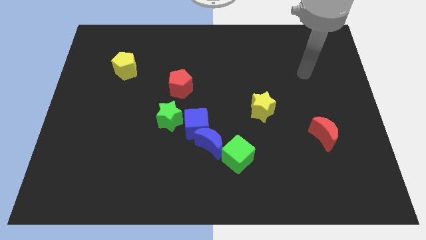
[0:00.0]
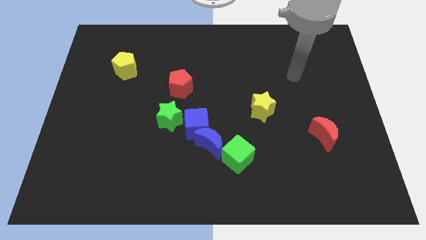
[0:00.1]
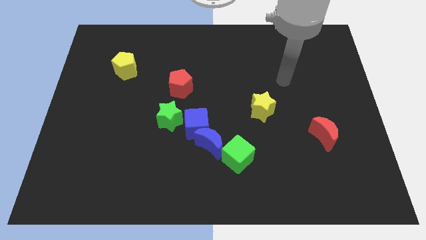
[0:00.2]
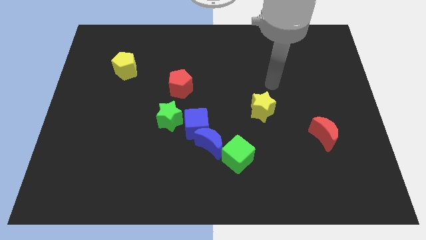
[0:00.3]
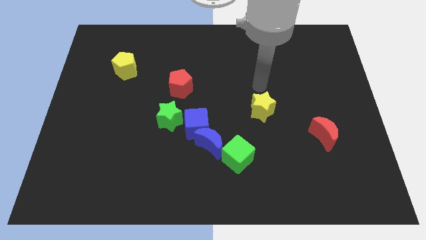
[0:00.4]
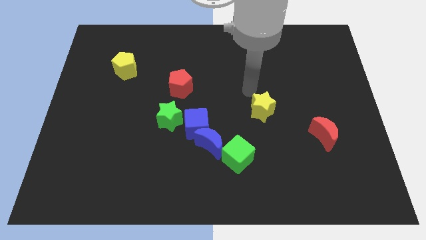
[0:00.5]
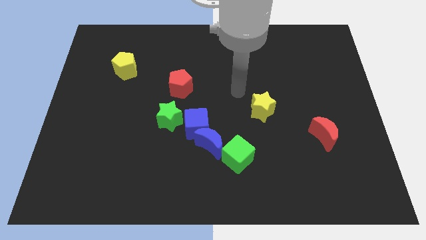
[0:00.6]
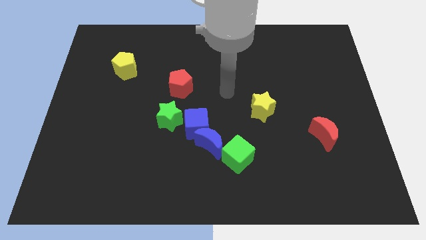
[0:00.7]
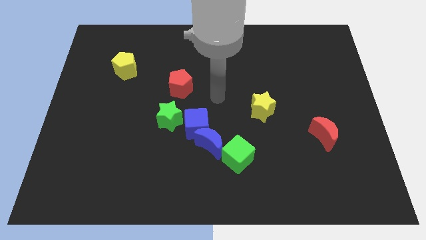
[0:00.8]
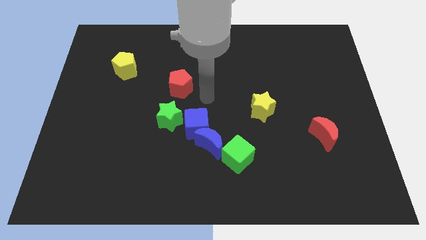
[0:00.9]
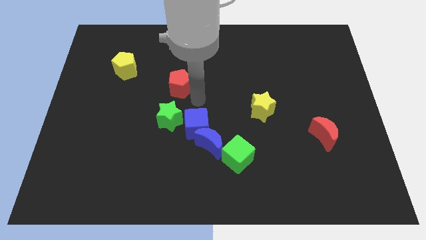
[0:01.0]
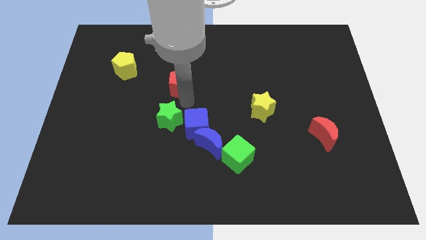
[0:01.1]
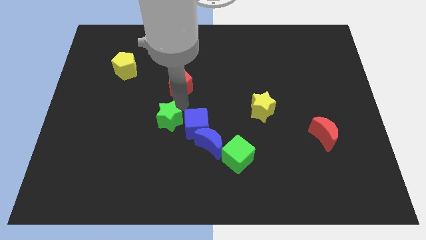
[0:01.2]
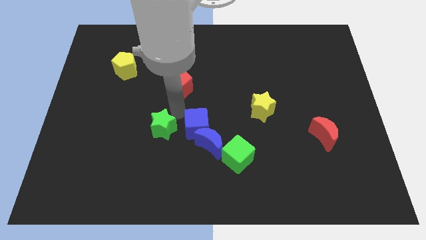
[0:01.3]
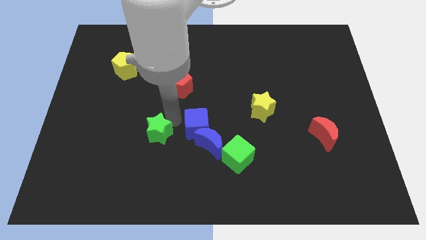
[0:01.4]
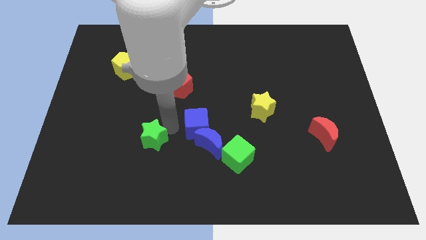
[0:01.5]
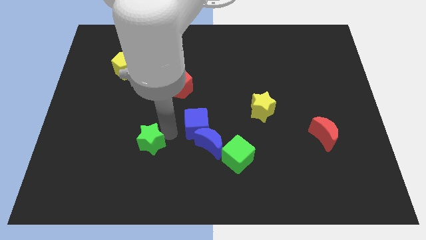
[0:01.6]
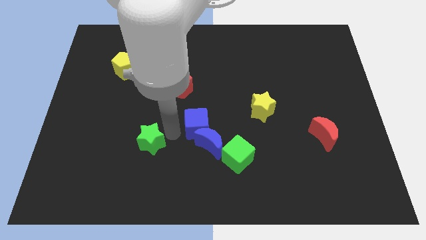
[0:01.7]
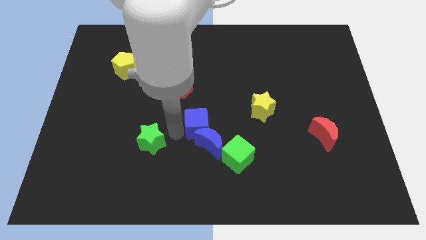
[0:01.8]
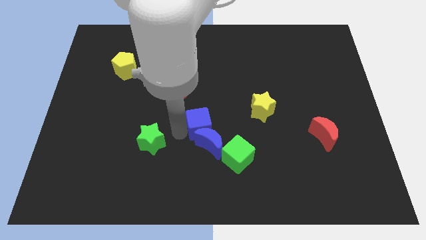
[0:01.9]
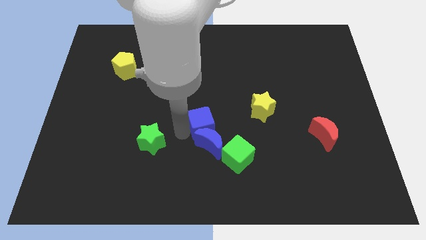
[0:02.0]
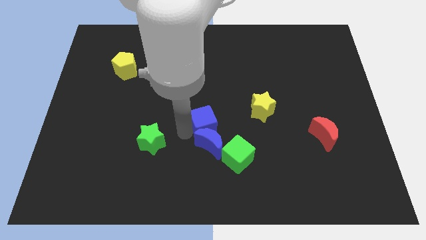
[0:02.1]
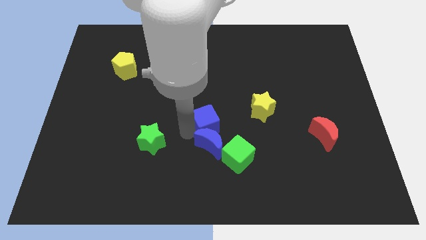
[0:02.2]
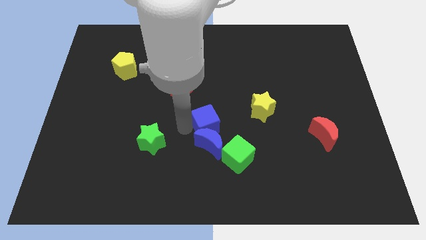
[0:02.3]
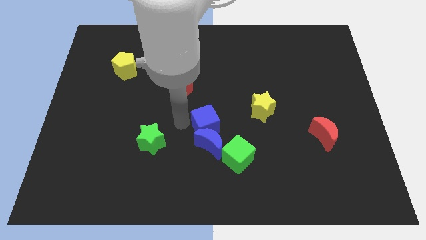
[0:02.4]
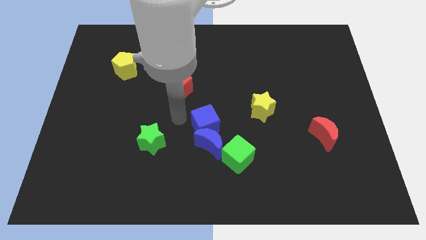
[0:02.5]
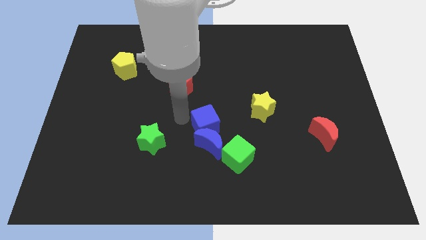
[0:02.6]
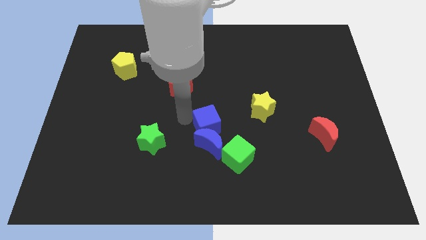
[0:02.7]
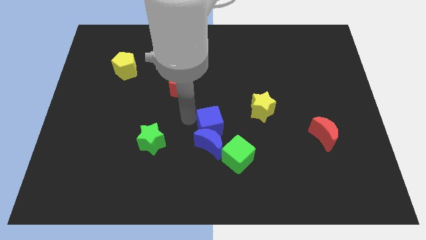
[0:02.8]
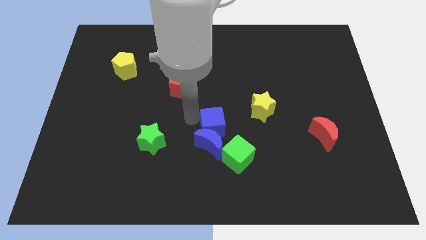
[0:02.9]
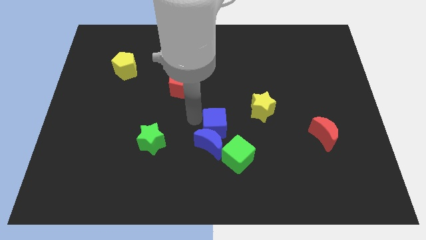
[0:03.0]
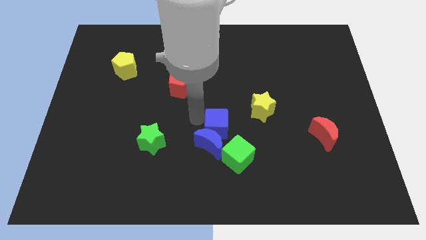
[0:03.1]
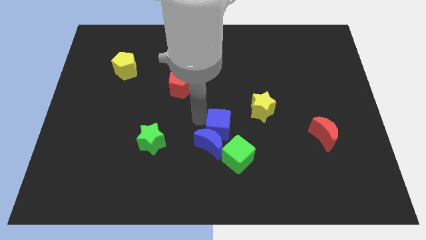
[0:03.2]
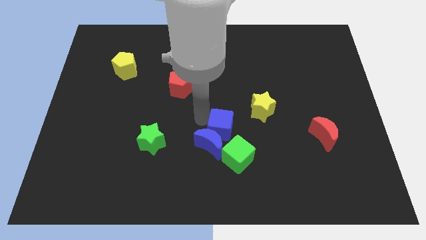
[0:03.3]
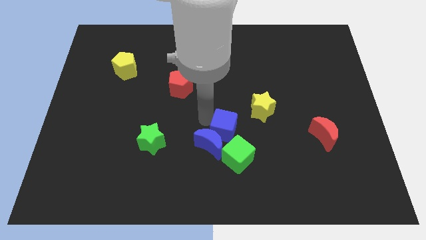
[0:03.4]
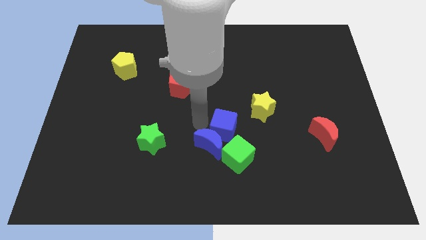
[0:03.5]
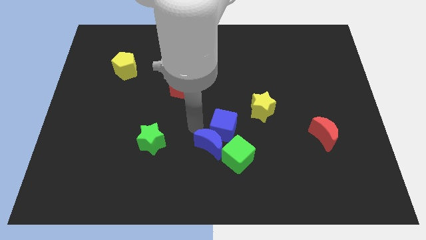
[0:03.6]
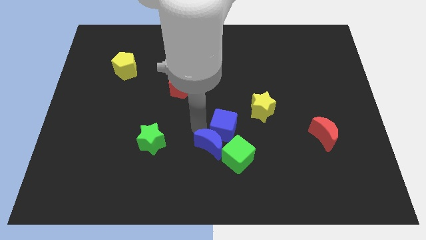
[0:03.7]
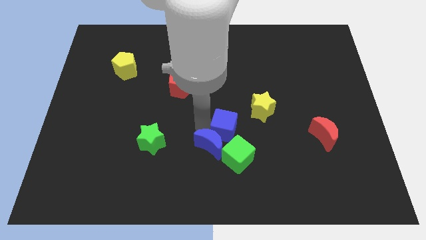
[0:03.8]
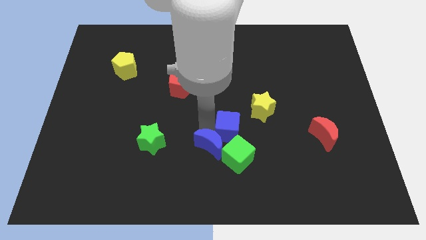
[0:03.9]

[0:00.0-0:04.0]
slightly slide the blue cube to the right

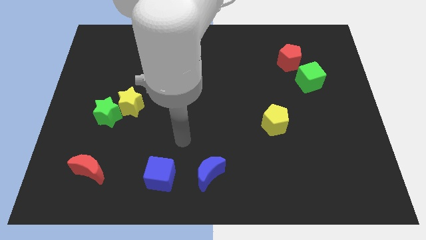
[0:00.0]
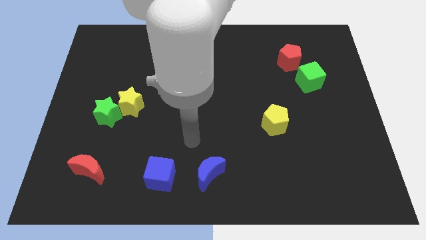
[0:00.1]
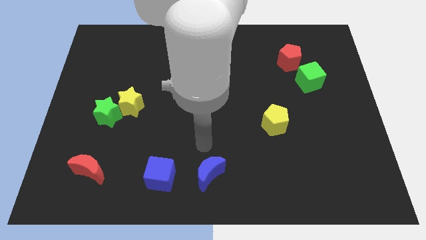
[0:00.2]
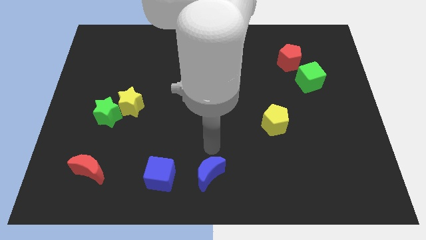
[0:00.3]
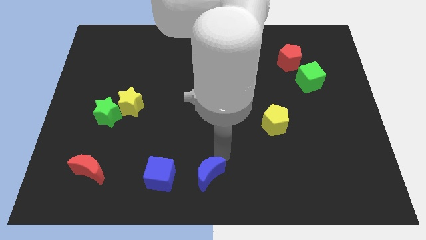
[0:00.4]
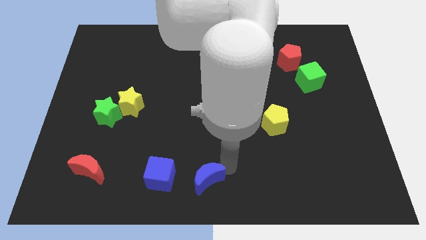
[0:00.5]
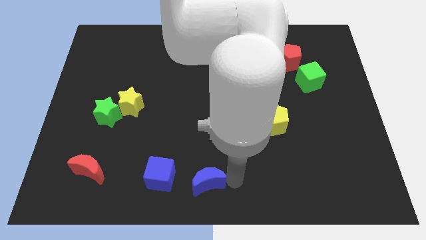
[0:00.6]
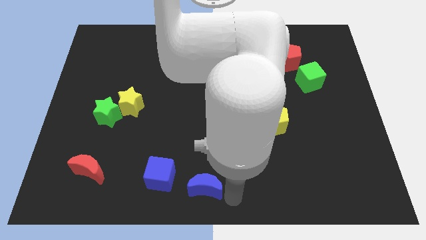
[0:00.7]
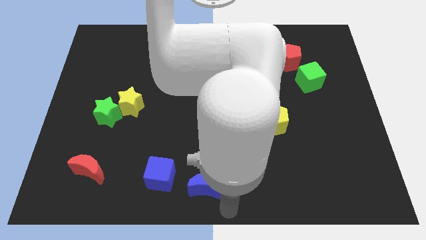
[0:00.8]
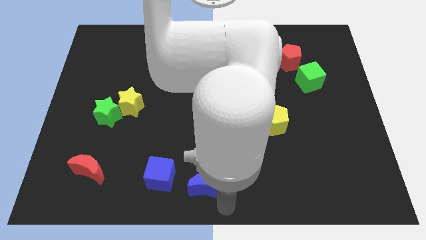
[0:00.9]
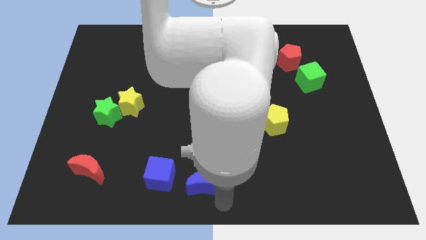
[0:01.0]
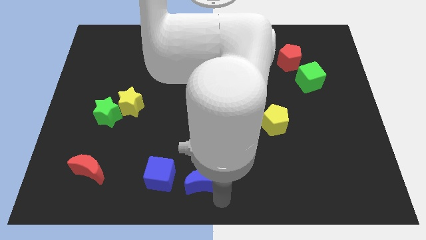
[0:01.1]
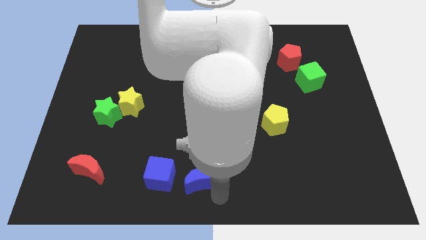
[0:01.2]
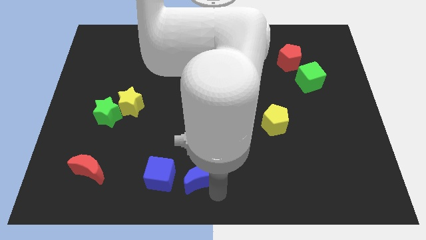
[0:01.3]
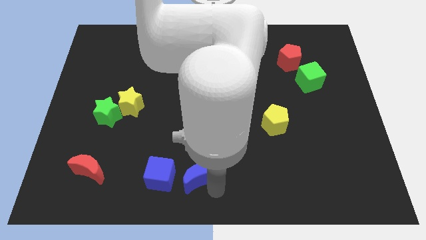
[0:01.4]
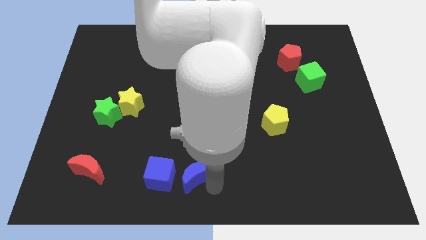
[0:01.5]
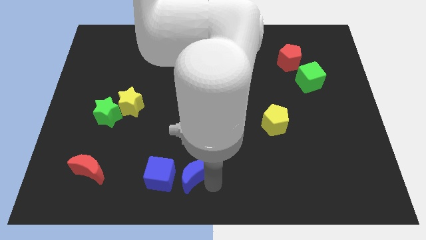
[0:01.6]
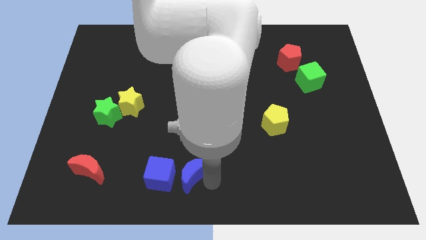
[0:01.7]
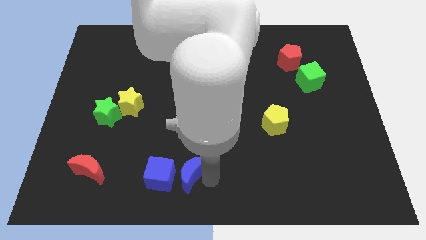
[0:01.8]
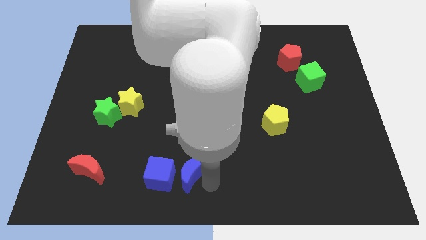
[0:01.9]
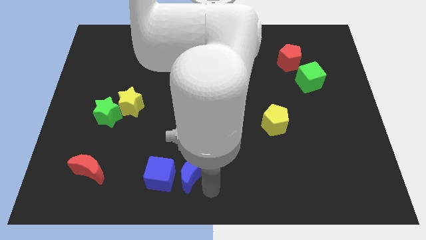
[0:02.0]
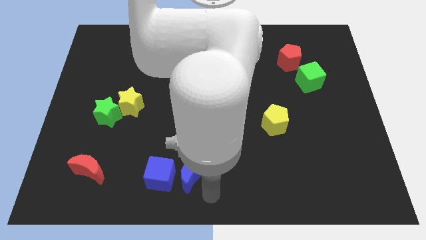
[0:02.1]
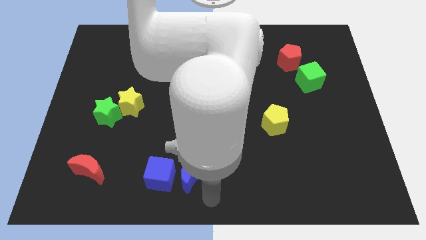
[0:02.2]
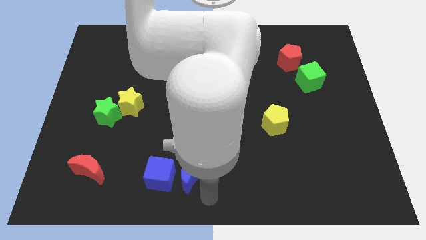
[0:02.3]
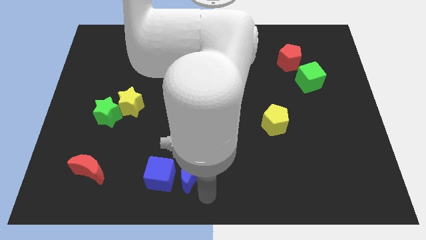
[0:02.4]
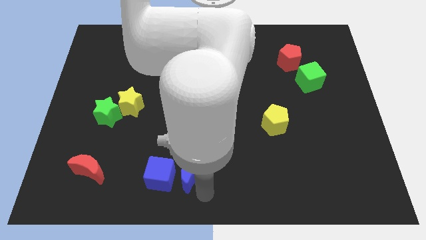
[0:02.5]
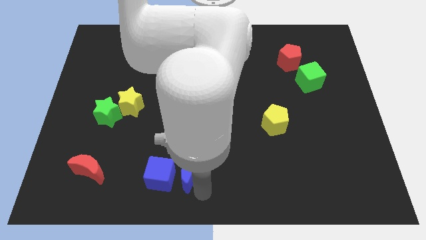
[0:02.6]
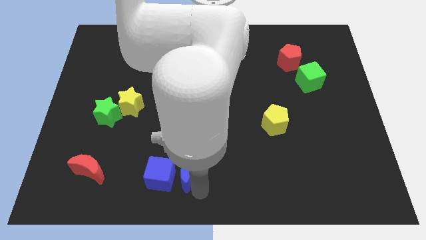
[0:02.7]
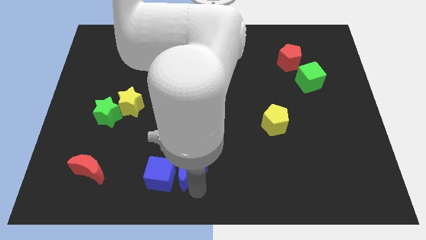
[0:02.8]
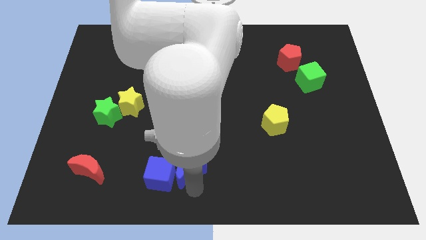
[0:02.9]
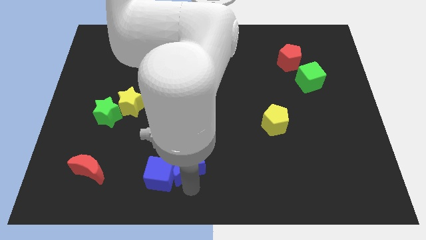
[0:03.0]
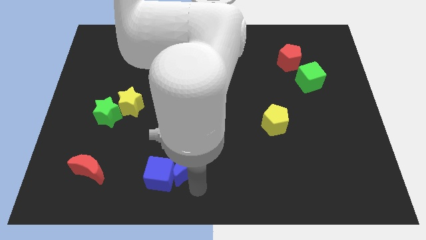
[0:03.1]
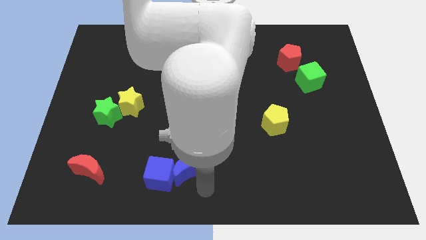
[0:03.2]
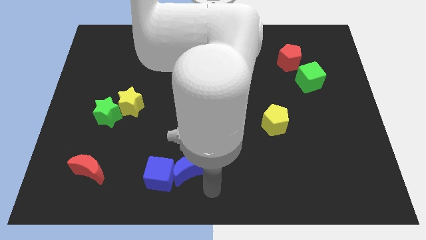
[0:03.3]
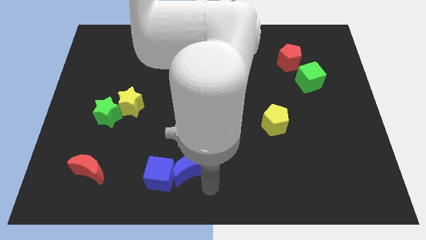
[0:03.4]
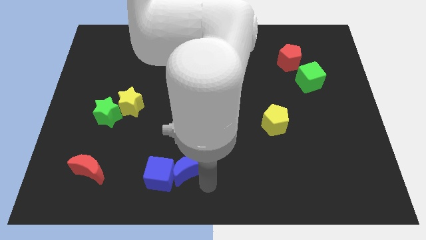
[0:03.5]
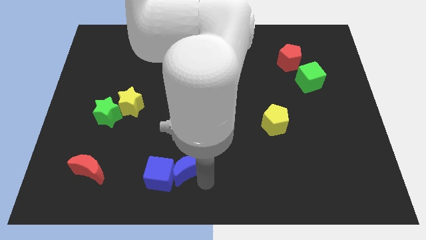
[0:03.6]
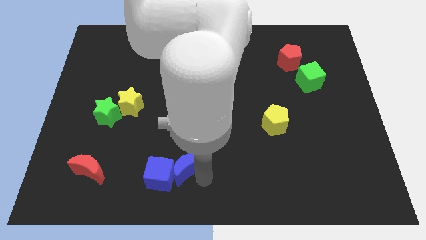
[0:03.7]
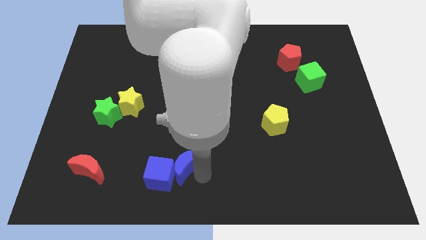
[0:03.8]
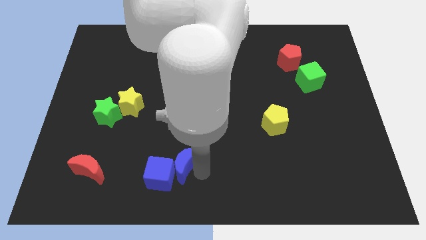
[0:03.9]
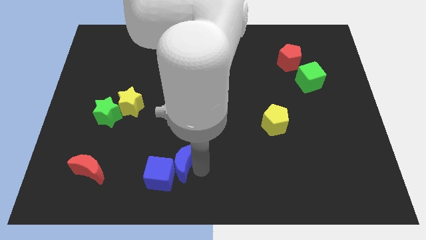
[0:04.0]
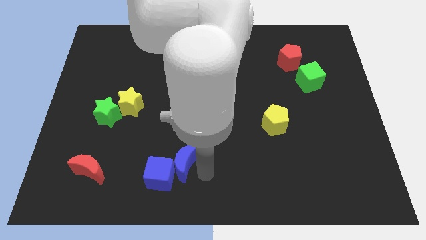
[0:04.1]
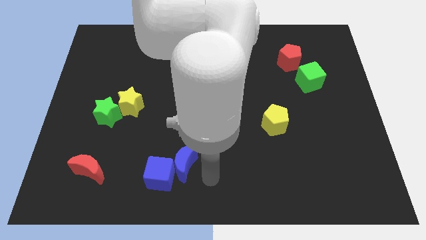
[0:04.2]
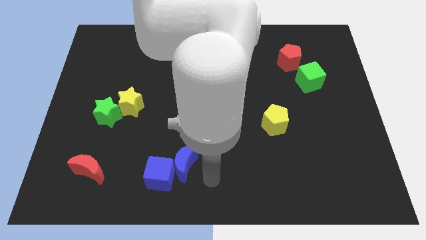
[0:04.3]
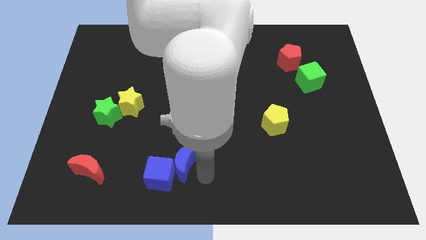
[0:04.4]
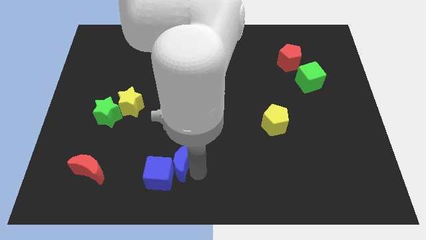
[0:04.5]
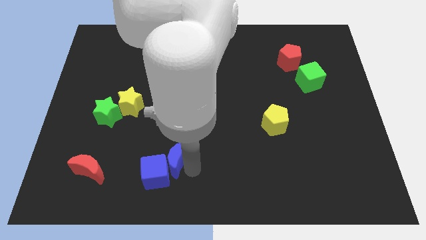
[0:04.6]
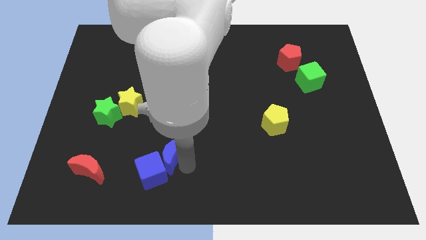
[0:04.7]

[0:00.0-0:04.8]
push the blue moon to the left slightly
